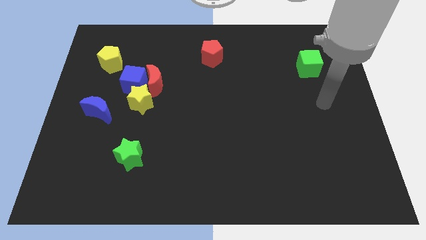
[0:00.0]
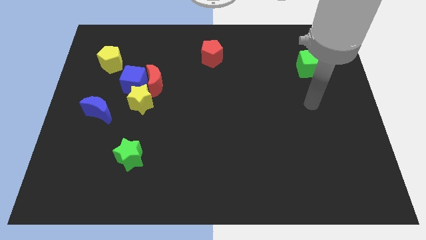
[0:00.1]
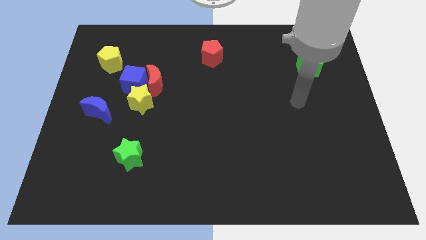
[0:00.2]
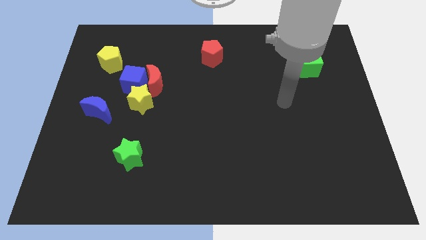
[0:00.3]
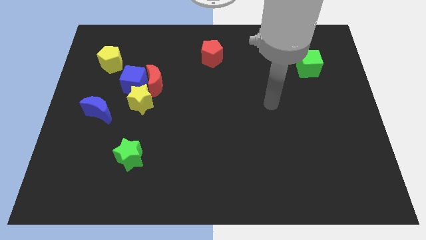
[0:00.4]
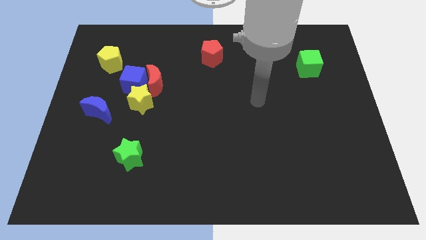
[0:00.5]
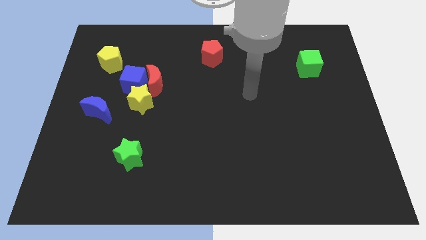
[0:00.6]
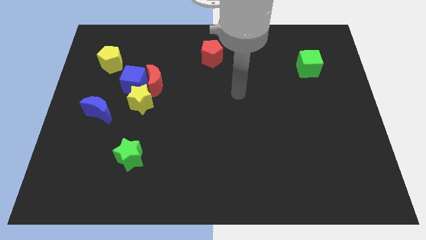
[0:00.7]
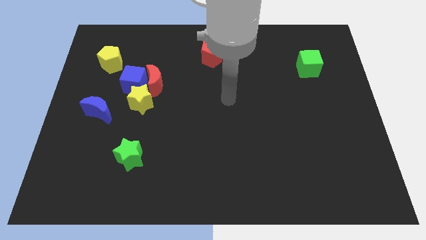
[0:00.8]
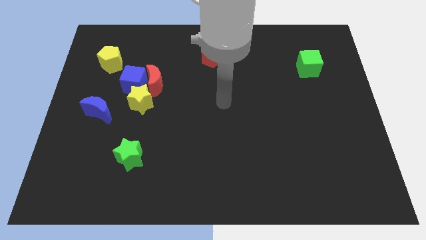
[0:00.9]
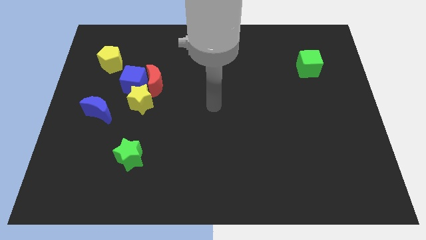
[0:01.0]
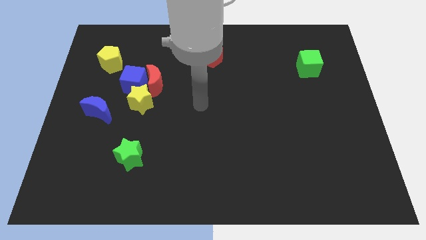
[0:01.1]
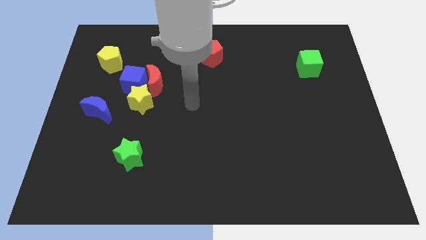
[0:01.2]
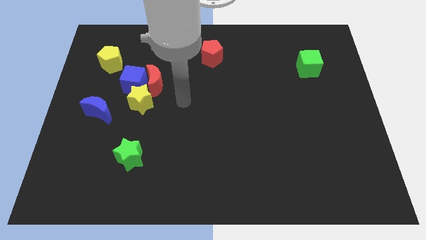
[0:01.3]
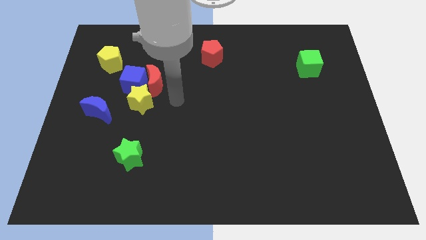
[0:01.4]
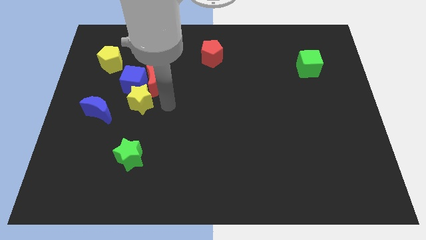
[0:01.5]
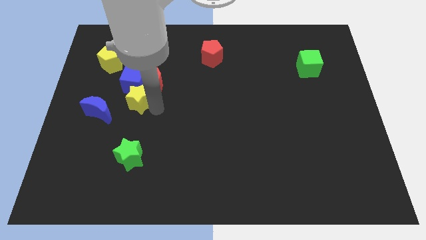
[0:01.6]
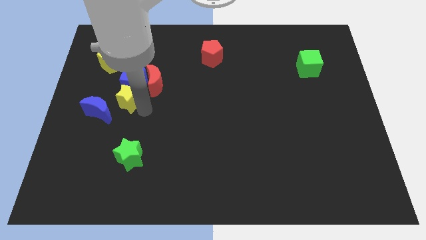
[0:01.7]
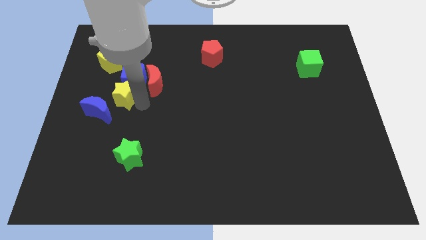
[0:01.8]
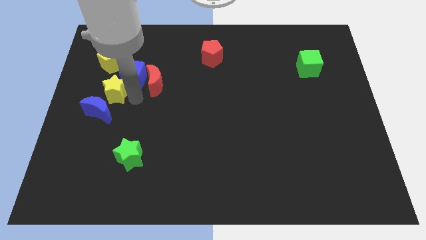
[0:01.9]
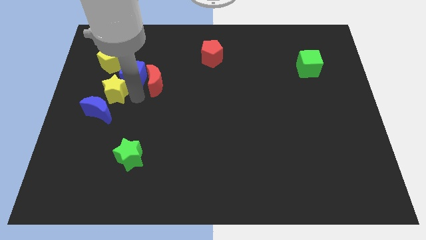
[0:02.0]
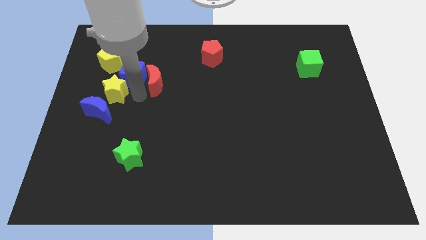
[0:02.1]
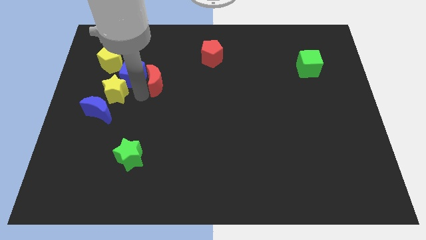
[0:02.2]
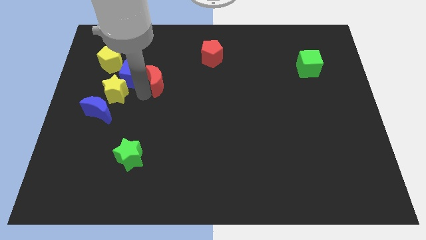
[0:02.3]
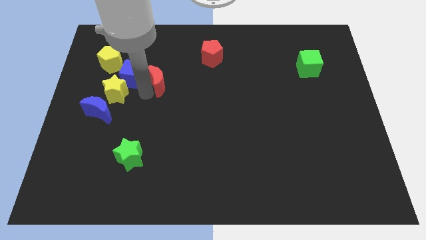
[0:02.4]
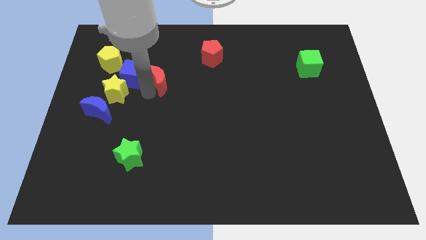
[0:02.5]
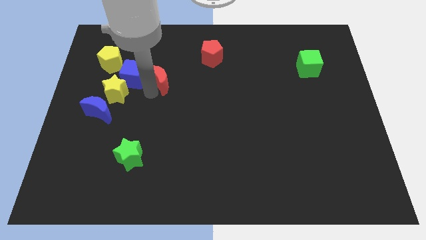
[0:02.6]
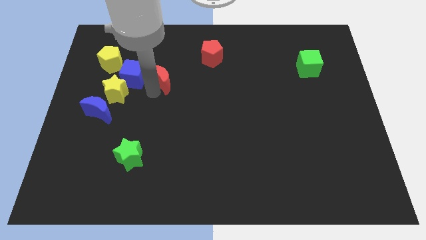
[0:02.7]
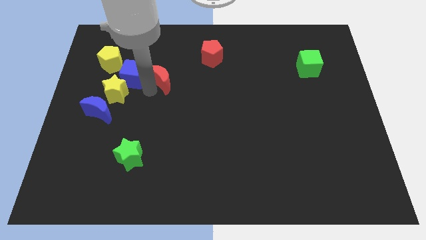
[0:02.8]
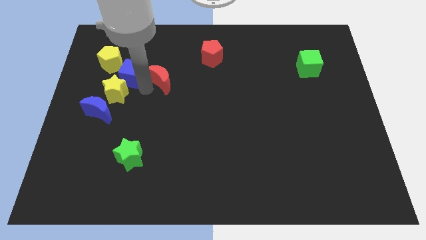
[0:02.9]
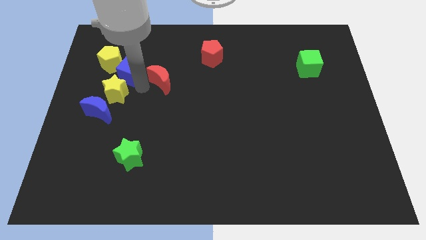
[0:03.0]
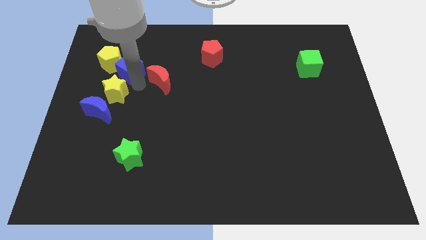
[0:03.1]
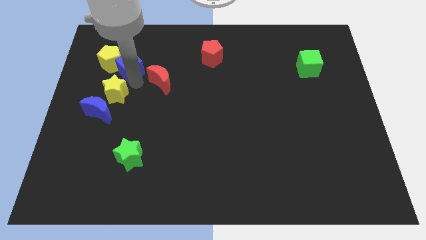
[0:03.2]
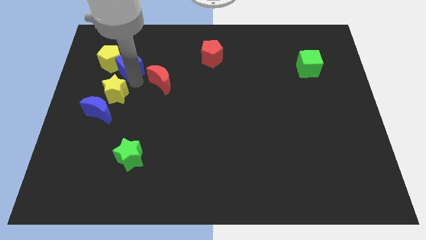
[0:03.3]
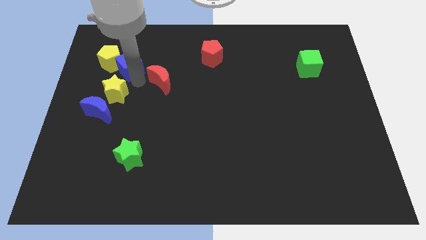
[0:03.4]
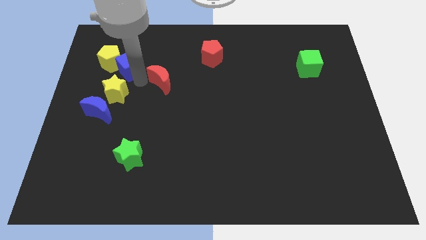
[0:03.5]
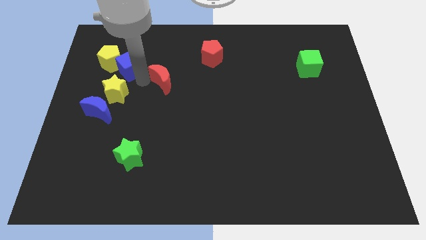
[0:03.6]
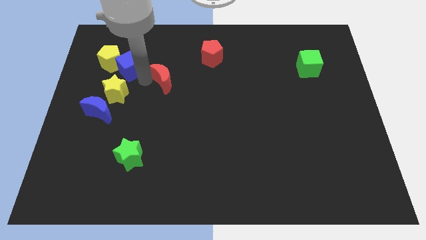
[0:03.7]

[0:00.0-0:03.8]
pull the red moon apart from the blue cube and yellow star

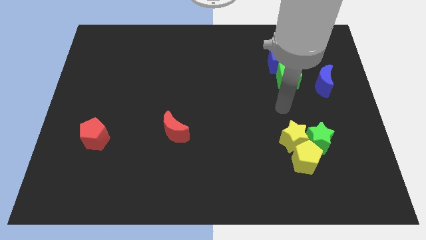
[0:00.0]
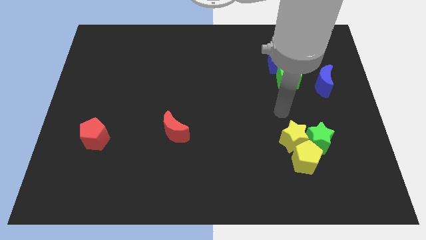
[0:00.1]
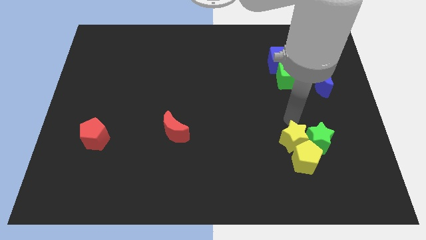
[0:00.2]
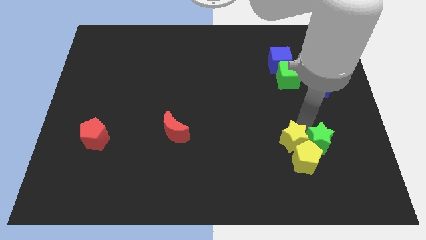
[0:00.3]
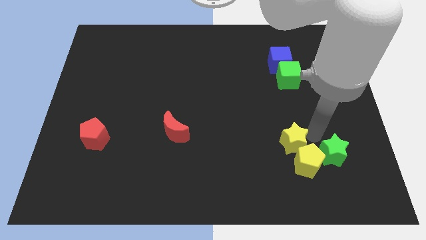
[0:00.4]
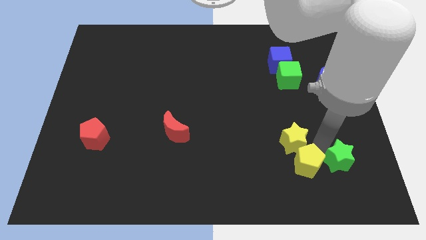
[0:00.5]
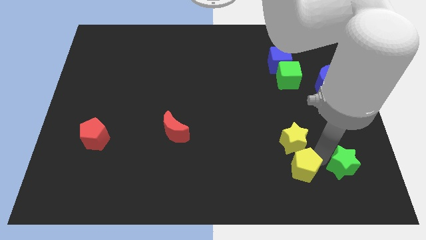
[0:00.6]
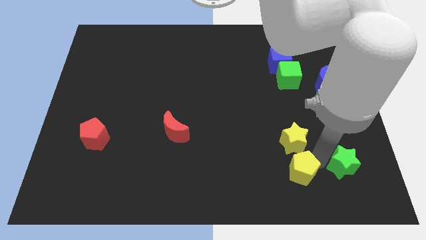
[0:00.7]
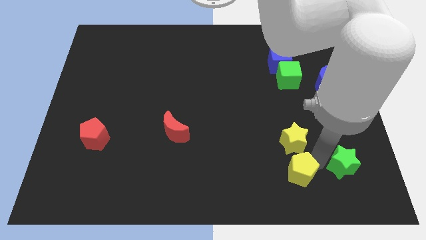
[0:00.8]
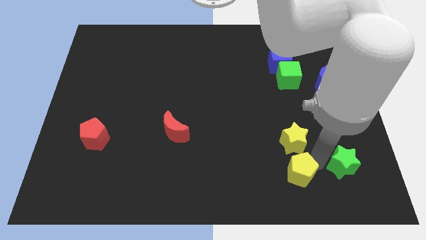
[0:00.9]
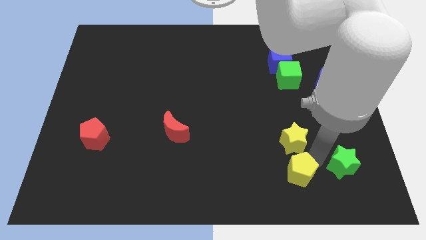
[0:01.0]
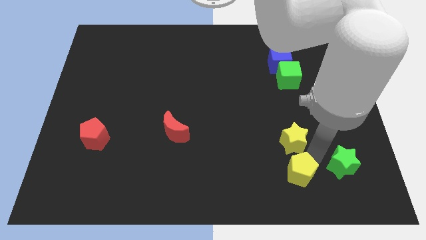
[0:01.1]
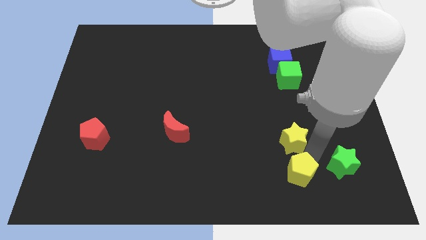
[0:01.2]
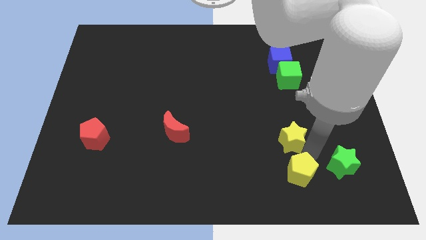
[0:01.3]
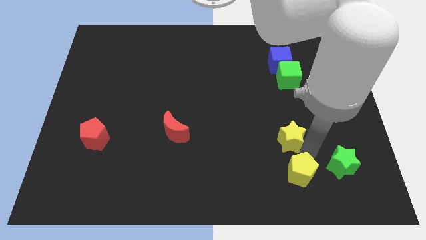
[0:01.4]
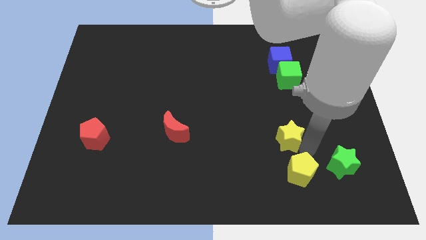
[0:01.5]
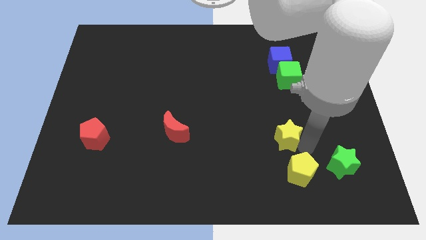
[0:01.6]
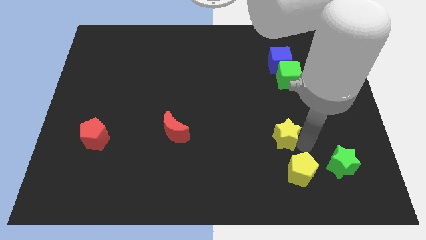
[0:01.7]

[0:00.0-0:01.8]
pull the yellow star apart from the green star and yellow pentagon

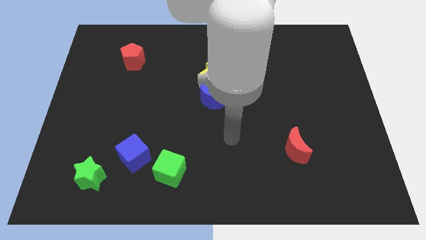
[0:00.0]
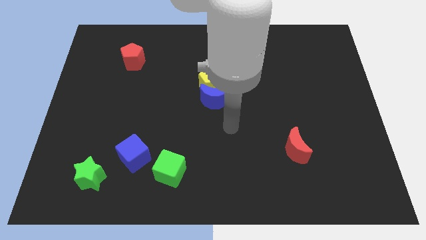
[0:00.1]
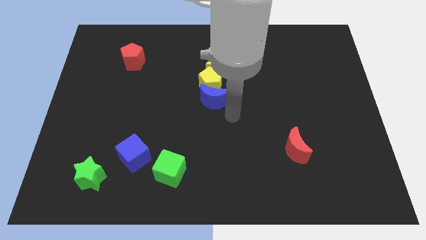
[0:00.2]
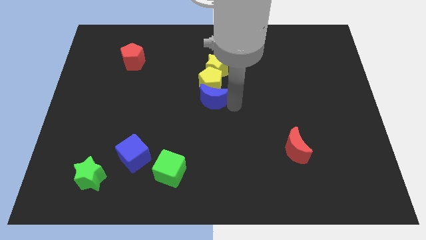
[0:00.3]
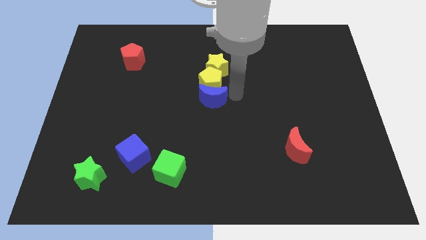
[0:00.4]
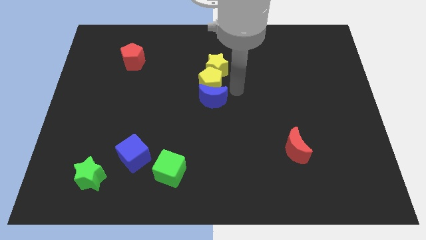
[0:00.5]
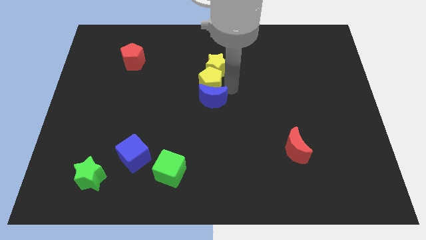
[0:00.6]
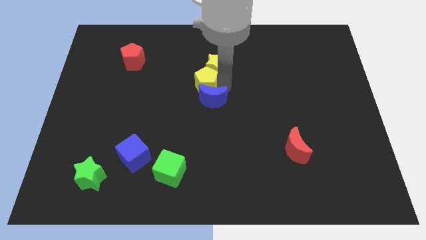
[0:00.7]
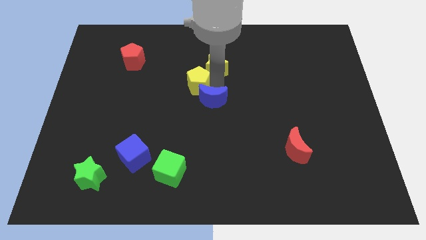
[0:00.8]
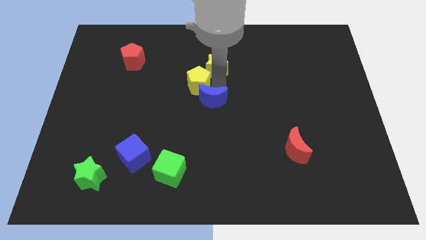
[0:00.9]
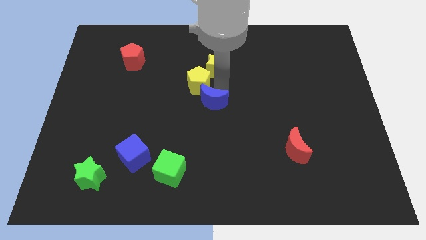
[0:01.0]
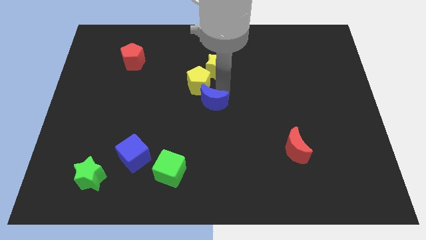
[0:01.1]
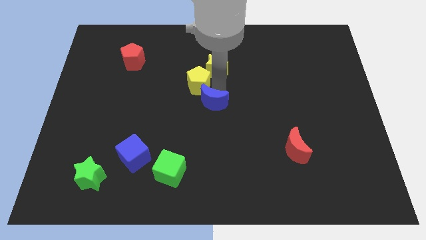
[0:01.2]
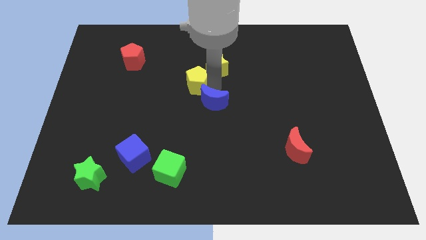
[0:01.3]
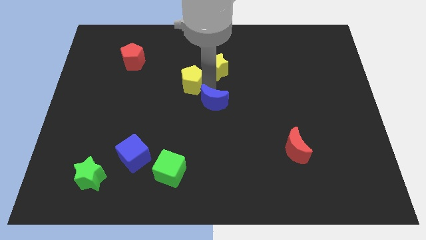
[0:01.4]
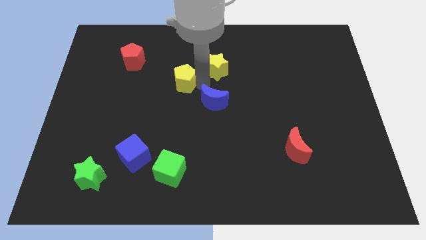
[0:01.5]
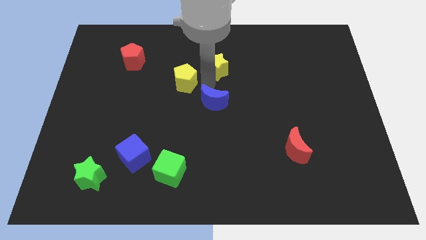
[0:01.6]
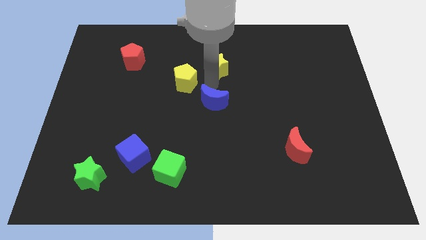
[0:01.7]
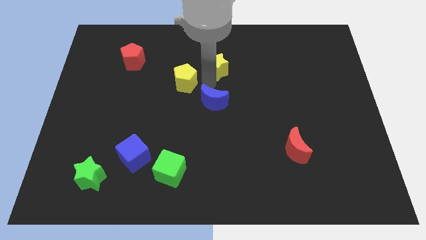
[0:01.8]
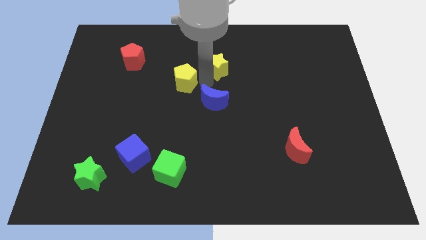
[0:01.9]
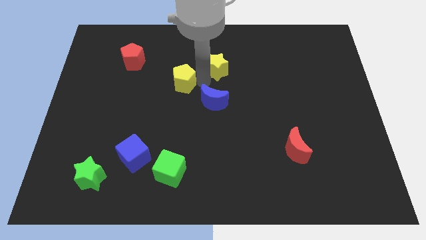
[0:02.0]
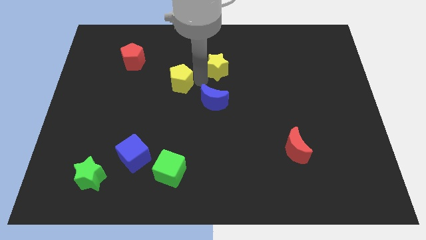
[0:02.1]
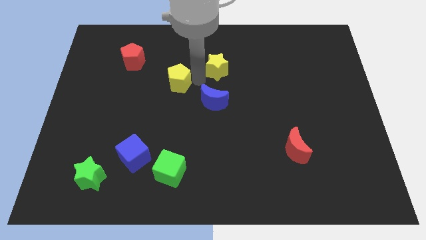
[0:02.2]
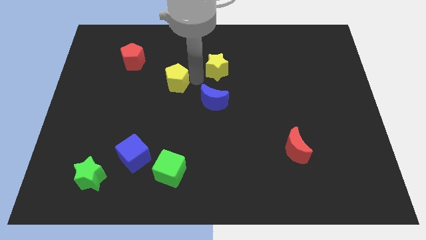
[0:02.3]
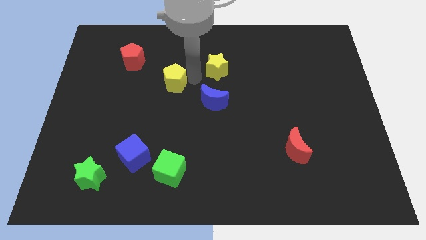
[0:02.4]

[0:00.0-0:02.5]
pull the yellow pentagon apart from the yellow star and blue moon

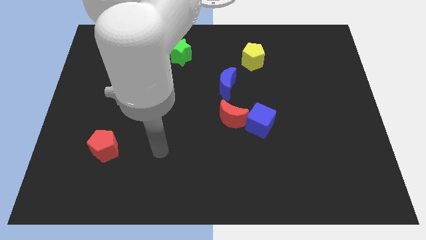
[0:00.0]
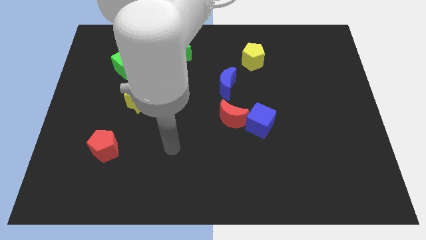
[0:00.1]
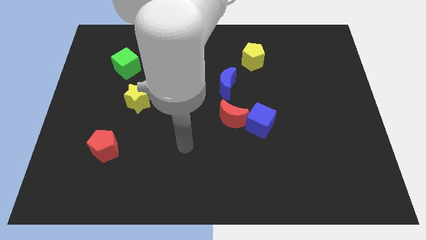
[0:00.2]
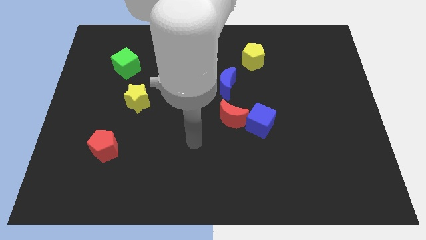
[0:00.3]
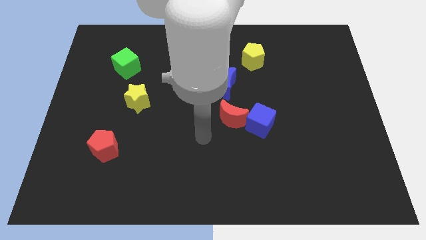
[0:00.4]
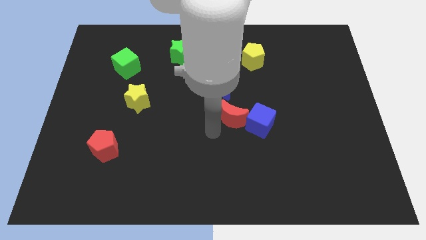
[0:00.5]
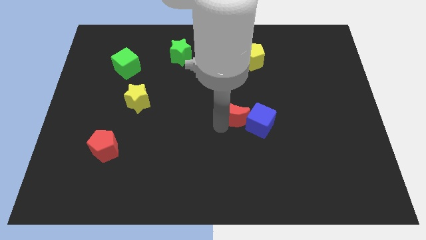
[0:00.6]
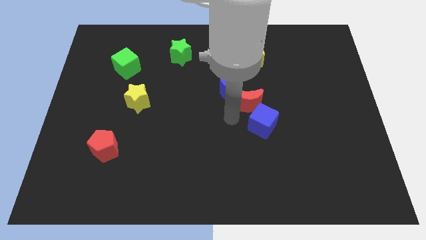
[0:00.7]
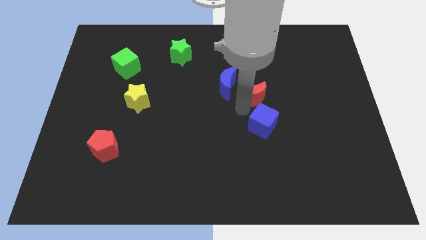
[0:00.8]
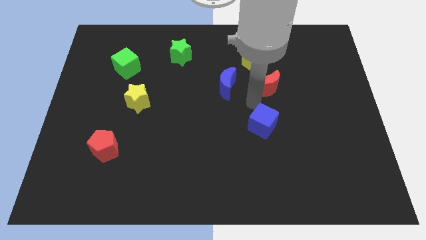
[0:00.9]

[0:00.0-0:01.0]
separate the blue cube from the red moon

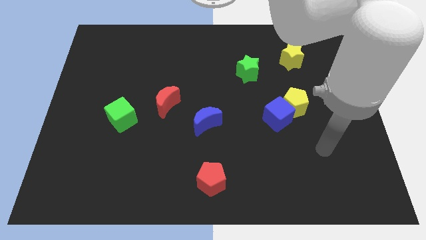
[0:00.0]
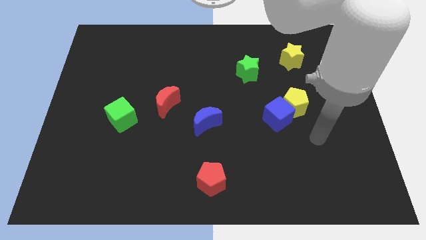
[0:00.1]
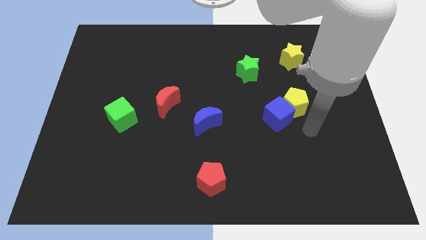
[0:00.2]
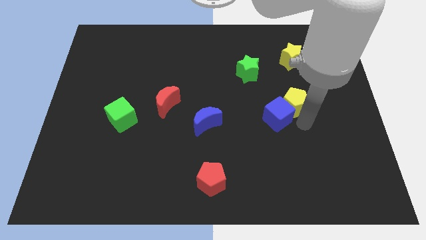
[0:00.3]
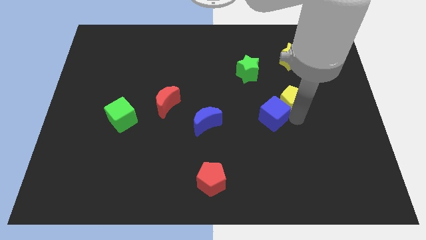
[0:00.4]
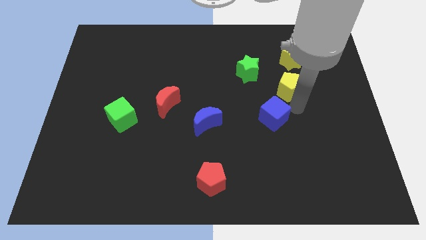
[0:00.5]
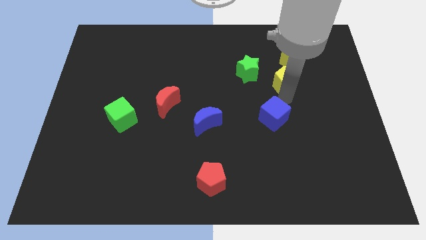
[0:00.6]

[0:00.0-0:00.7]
pull the blue cube apart from the yellow pentagon
